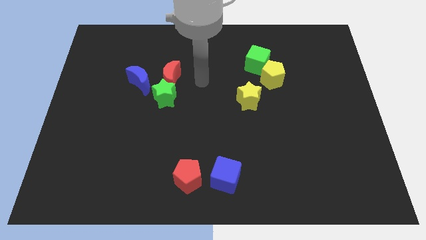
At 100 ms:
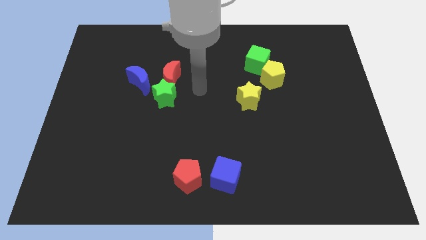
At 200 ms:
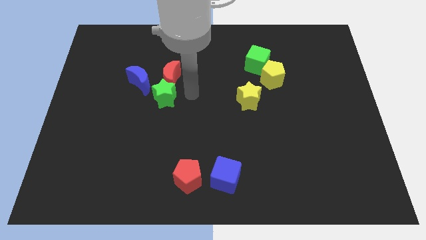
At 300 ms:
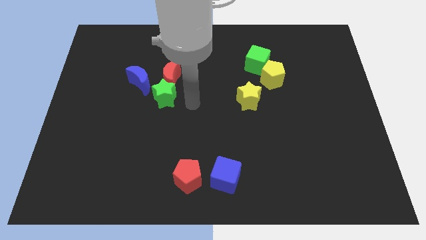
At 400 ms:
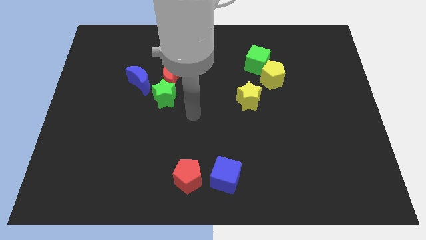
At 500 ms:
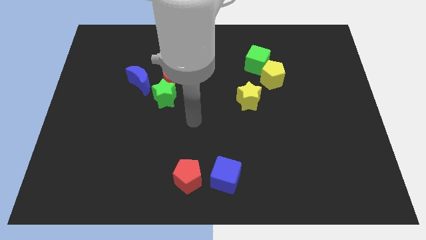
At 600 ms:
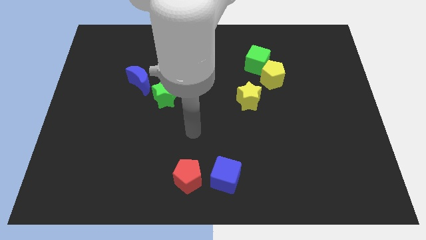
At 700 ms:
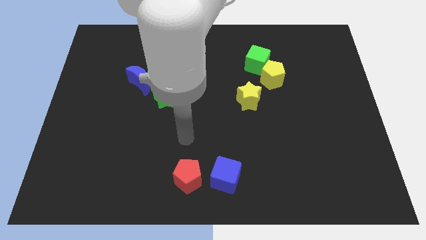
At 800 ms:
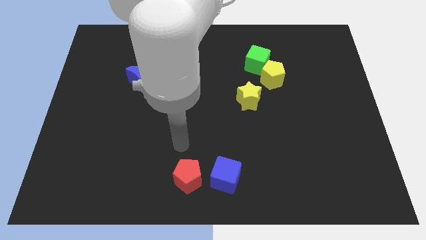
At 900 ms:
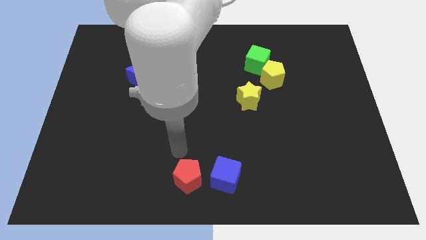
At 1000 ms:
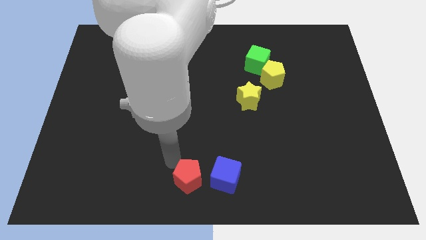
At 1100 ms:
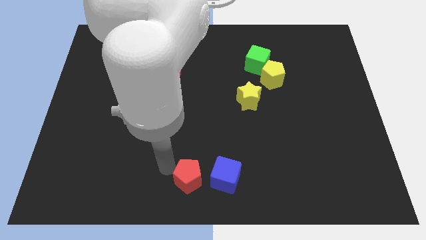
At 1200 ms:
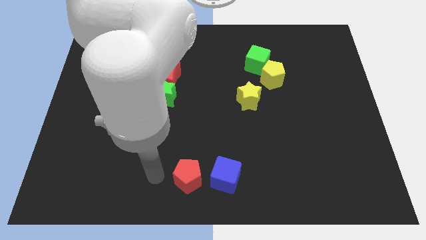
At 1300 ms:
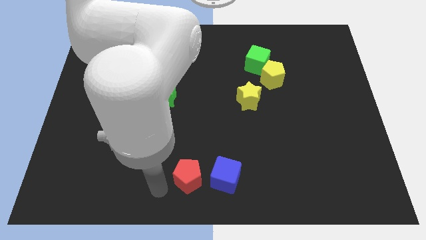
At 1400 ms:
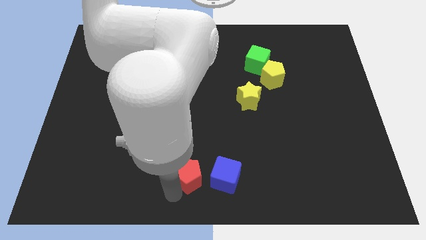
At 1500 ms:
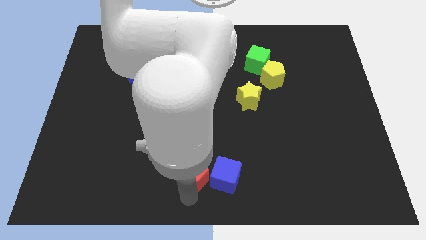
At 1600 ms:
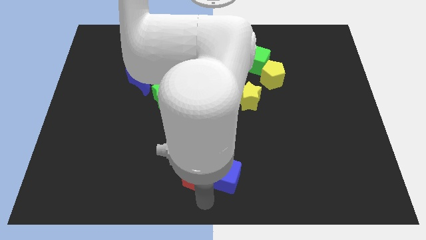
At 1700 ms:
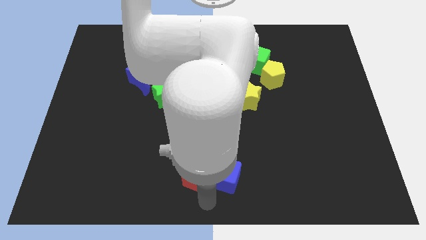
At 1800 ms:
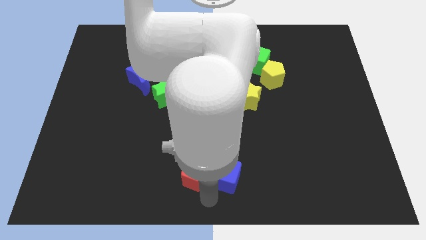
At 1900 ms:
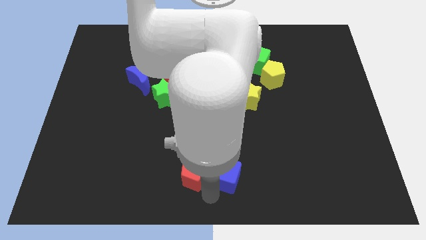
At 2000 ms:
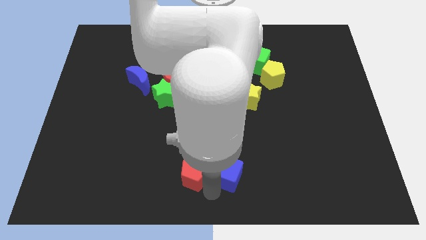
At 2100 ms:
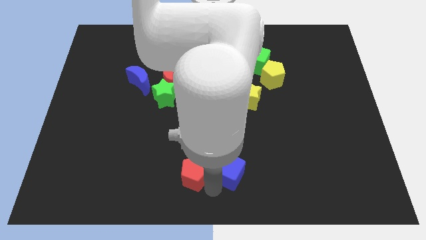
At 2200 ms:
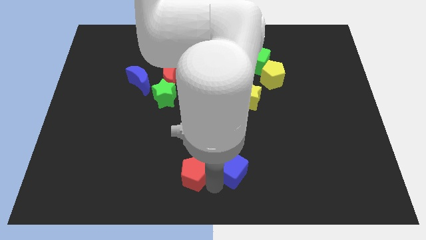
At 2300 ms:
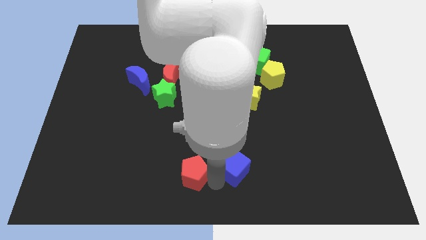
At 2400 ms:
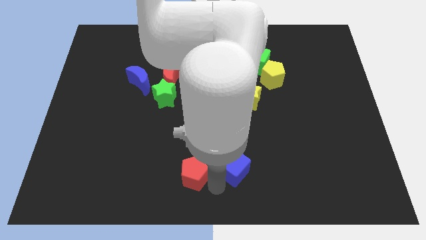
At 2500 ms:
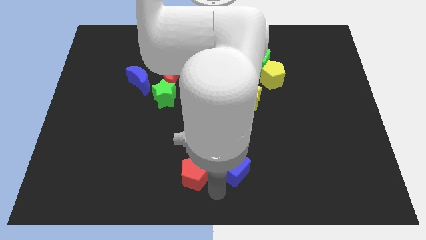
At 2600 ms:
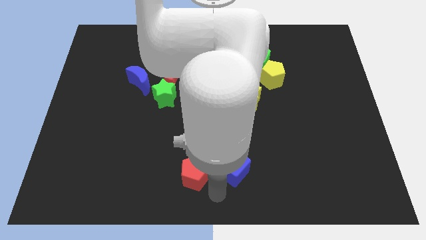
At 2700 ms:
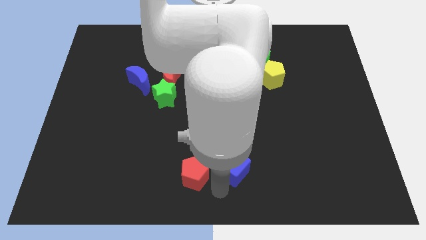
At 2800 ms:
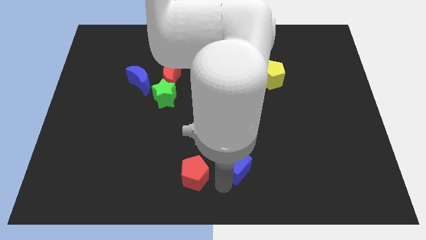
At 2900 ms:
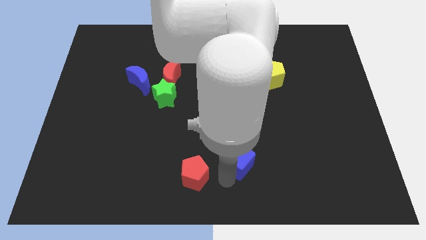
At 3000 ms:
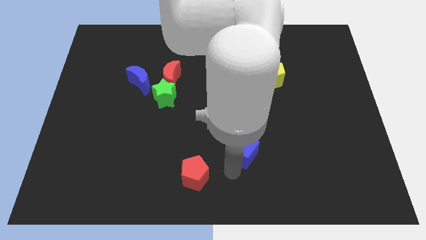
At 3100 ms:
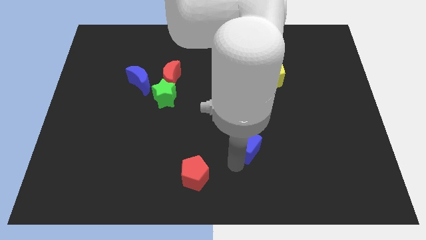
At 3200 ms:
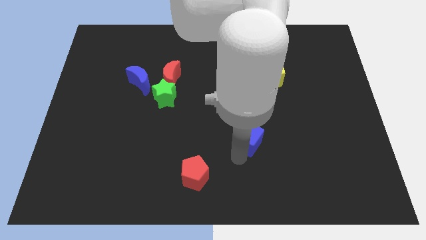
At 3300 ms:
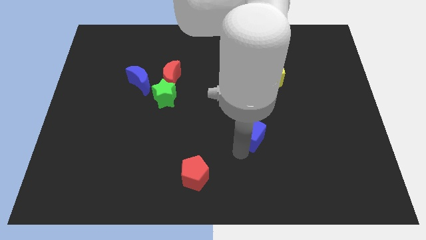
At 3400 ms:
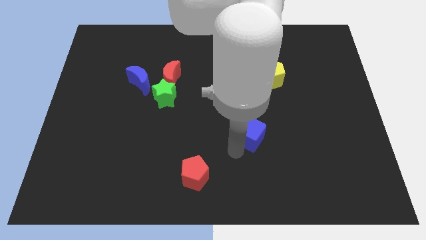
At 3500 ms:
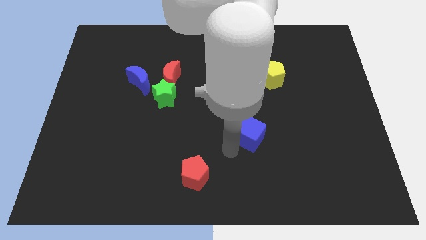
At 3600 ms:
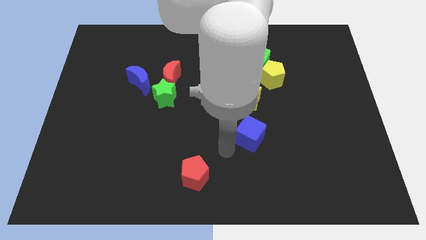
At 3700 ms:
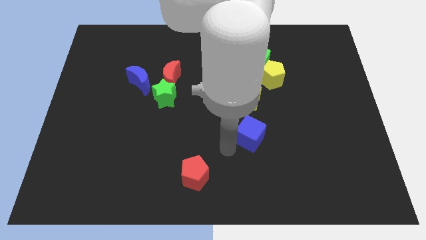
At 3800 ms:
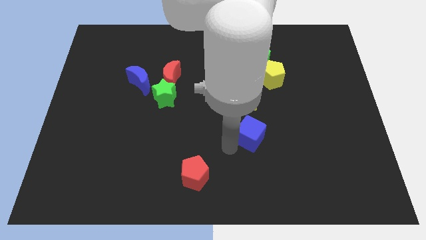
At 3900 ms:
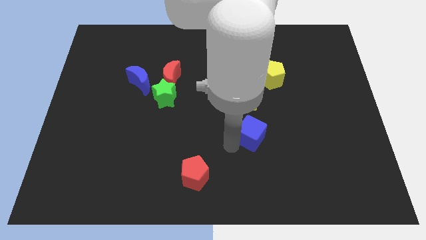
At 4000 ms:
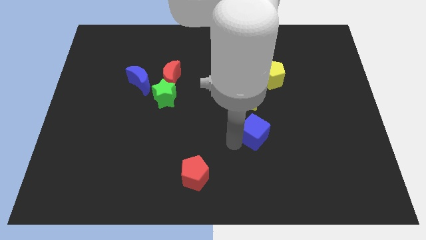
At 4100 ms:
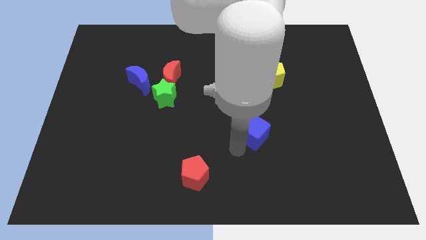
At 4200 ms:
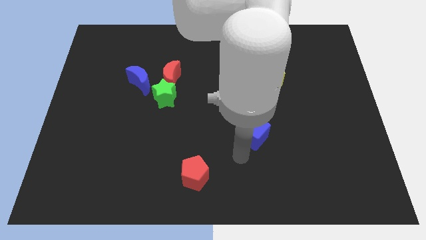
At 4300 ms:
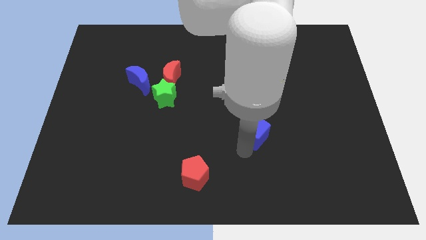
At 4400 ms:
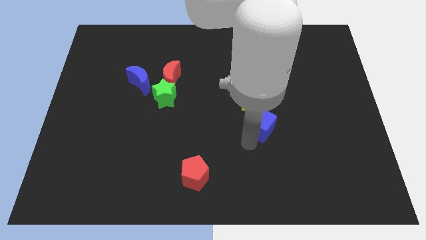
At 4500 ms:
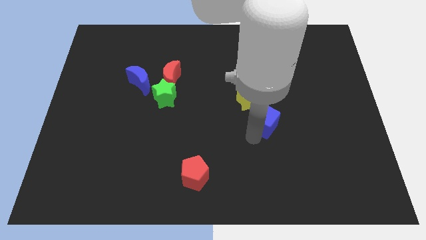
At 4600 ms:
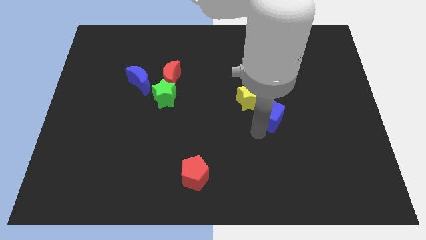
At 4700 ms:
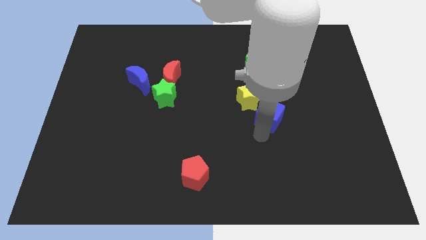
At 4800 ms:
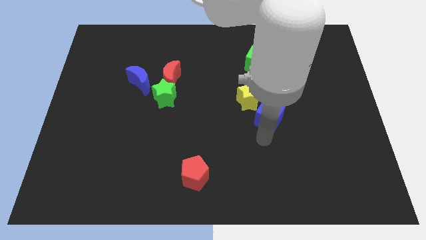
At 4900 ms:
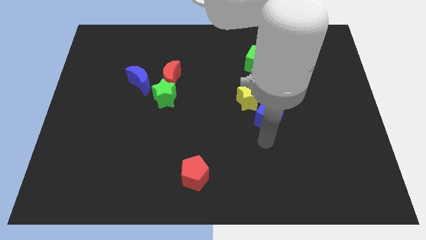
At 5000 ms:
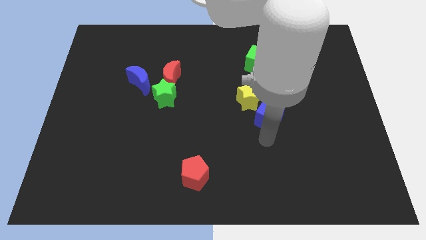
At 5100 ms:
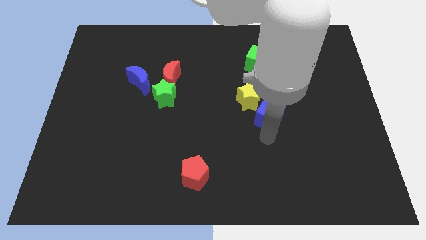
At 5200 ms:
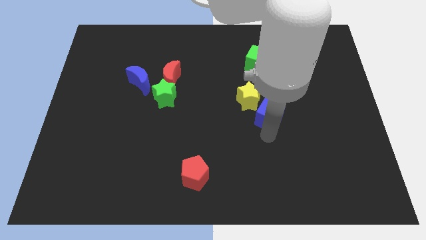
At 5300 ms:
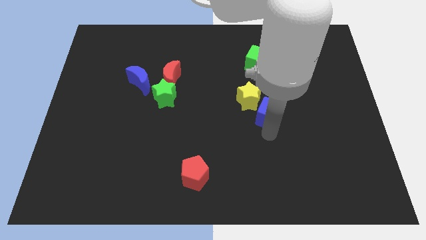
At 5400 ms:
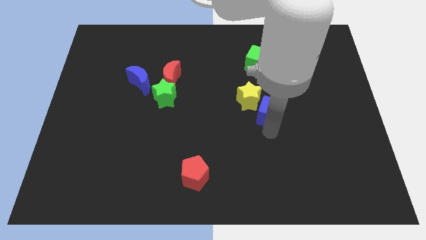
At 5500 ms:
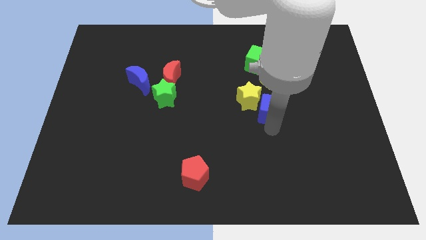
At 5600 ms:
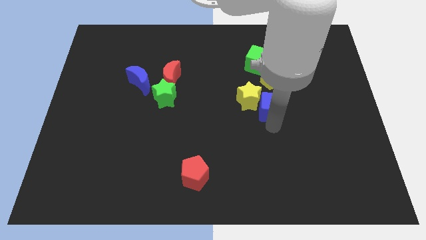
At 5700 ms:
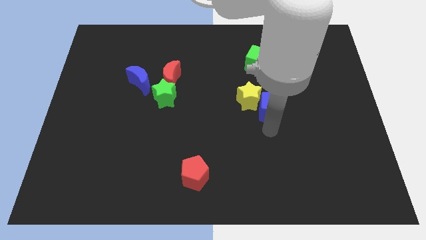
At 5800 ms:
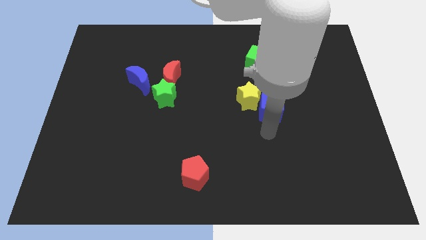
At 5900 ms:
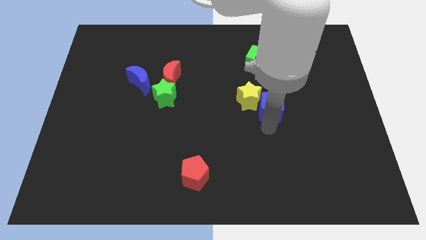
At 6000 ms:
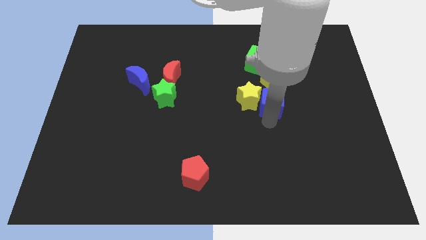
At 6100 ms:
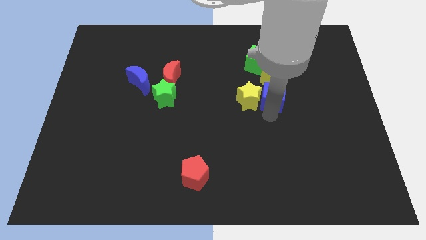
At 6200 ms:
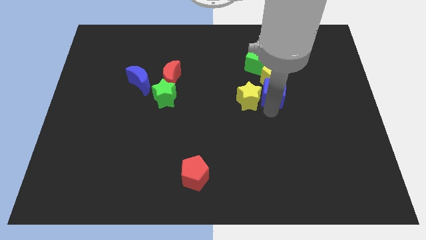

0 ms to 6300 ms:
push the blue cube towards the yellow pentagon

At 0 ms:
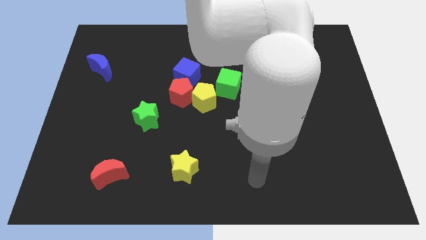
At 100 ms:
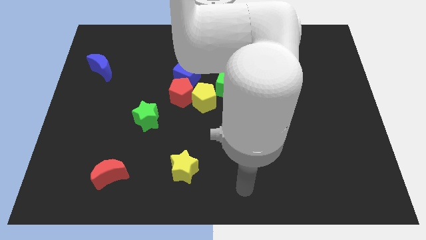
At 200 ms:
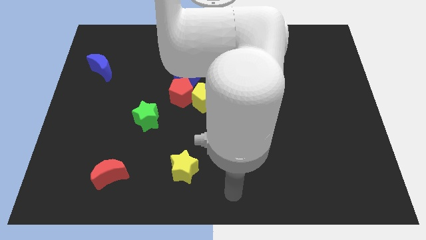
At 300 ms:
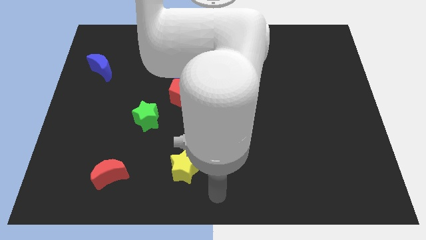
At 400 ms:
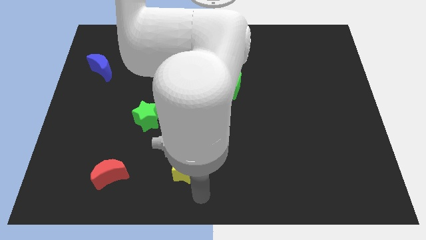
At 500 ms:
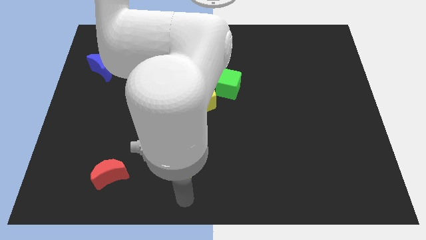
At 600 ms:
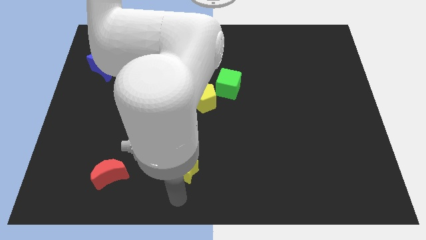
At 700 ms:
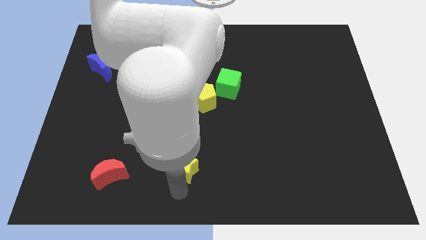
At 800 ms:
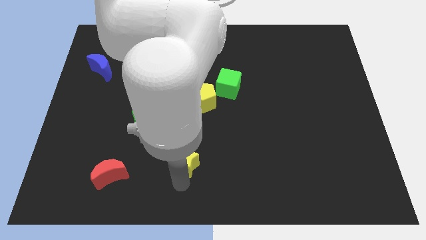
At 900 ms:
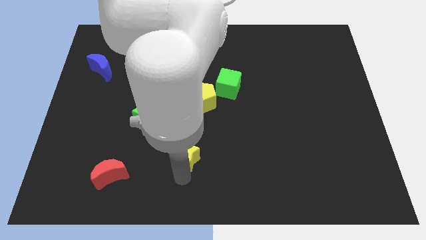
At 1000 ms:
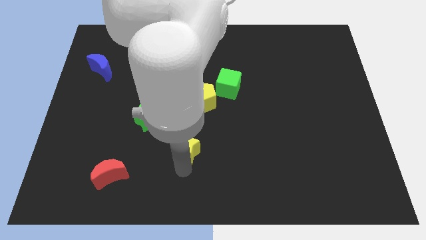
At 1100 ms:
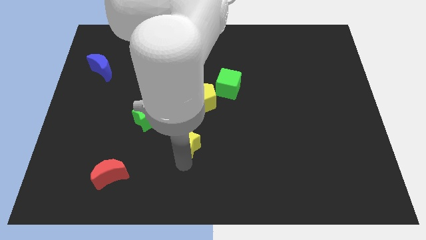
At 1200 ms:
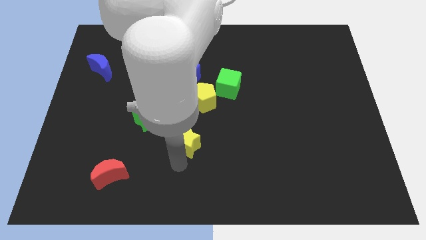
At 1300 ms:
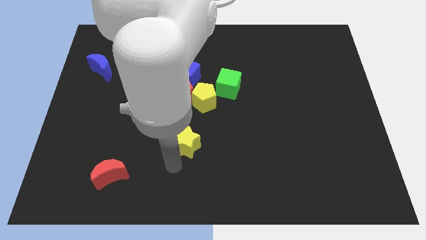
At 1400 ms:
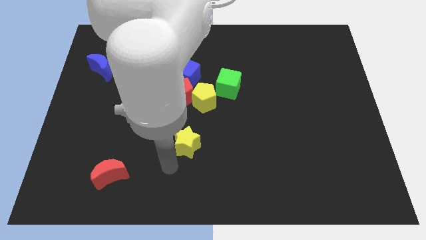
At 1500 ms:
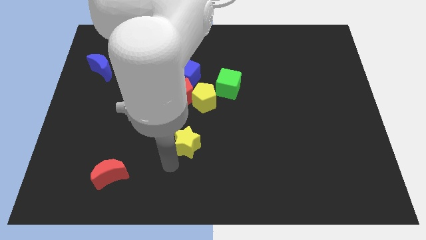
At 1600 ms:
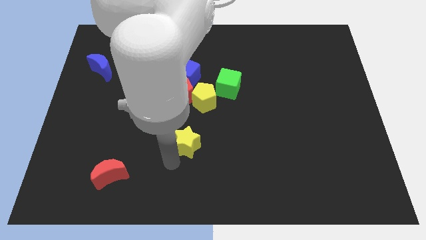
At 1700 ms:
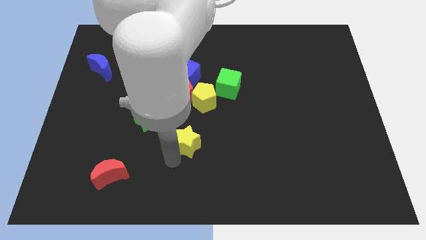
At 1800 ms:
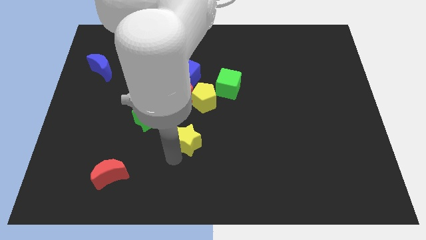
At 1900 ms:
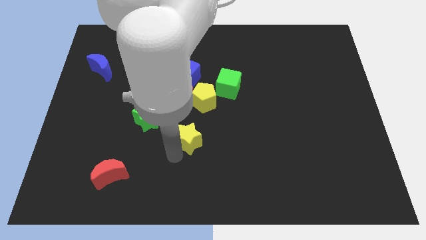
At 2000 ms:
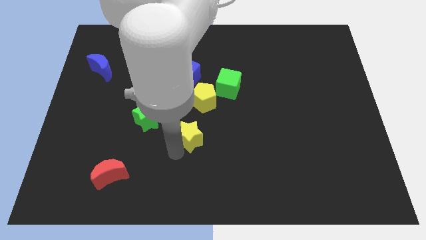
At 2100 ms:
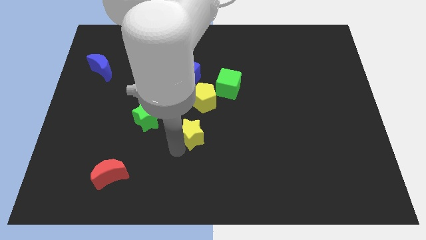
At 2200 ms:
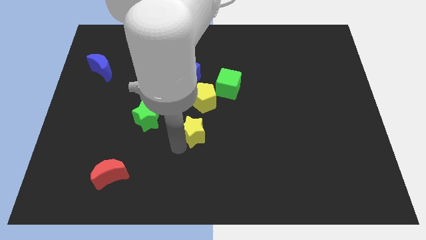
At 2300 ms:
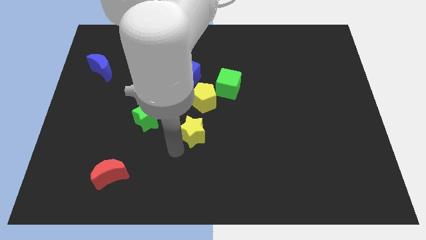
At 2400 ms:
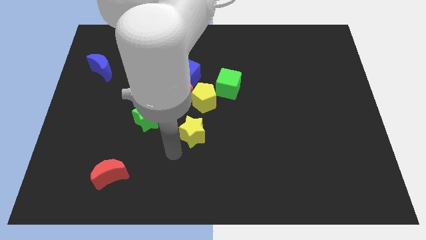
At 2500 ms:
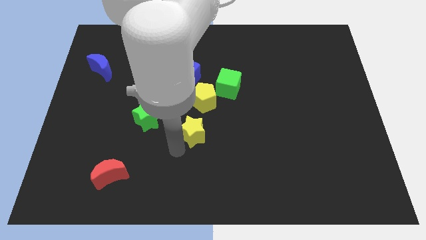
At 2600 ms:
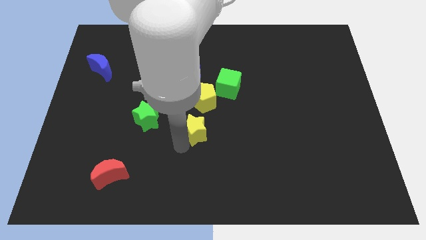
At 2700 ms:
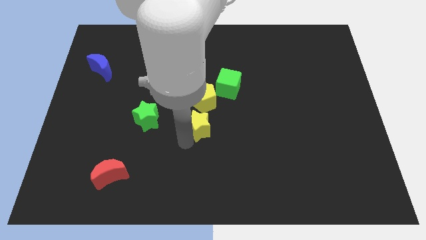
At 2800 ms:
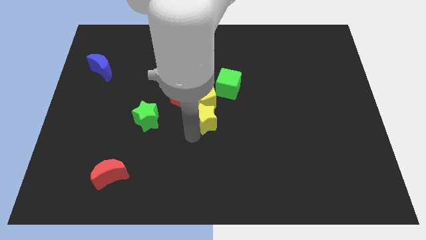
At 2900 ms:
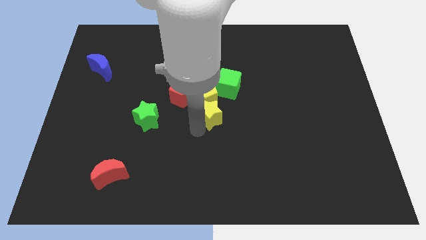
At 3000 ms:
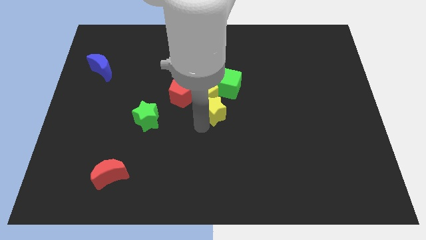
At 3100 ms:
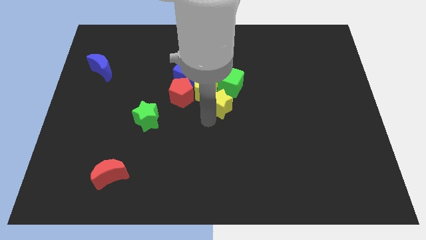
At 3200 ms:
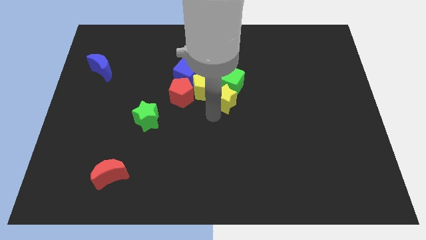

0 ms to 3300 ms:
move the yellow star towards the green cube
